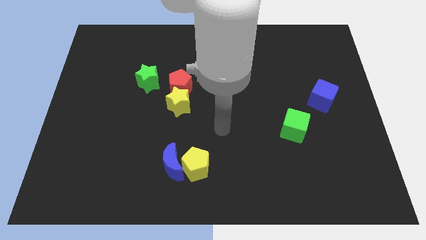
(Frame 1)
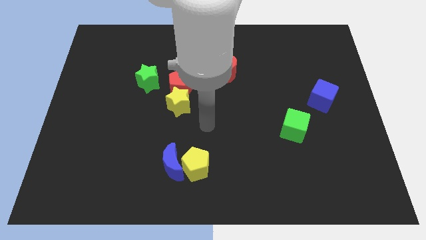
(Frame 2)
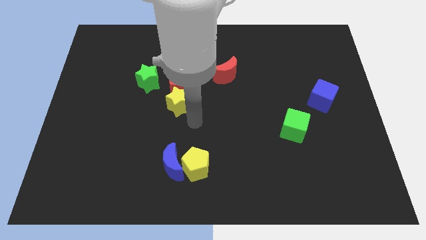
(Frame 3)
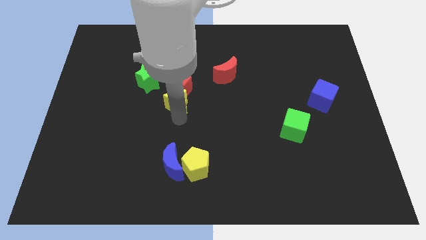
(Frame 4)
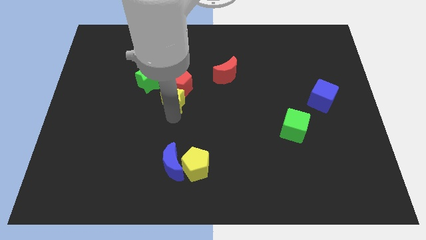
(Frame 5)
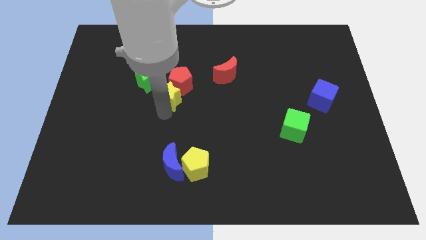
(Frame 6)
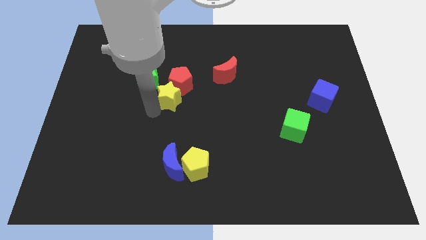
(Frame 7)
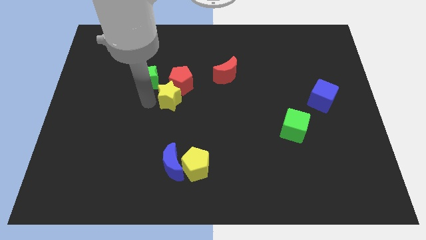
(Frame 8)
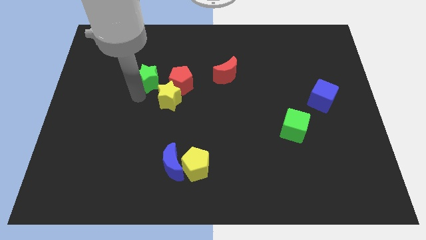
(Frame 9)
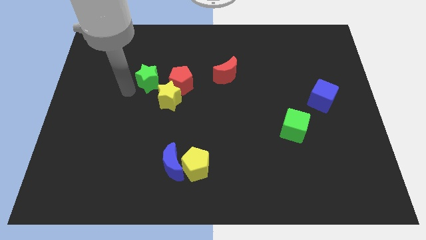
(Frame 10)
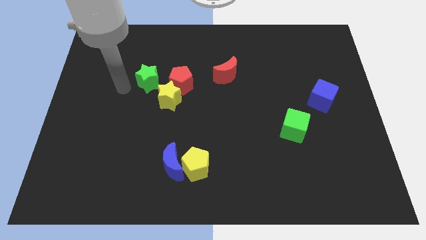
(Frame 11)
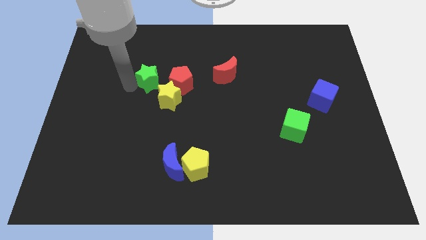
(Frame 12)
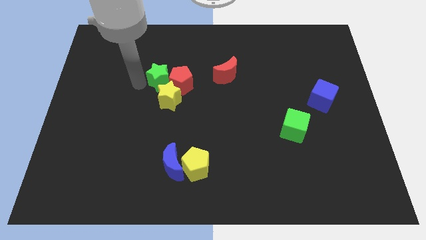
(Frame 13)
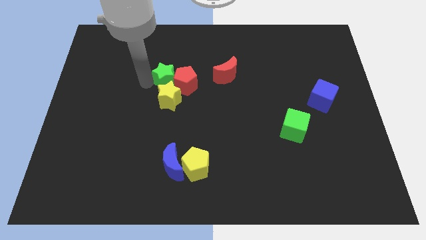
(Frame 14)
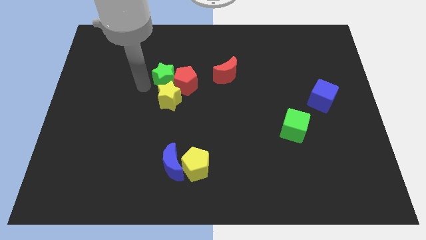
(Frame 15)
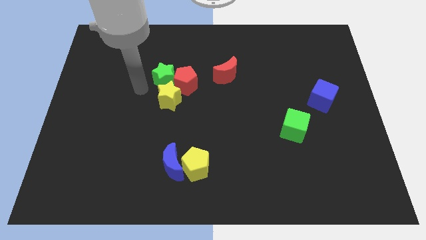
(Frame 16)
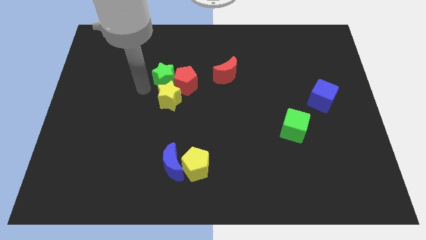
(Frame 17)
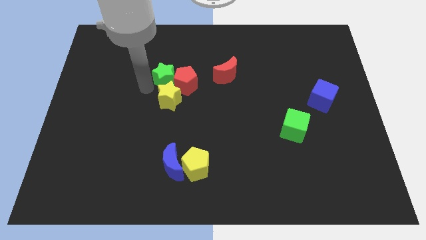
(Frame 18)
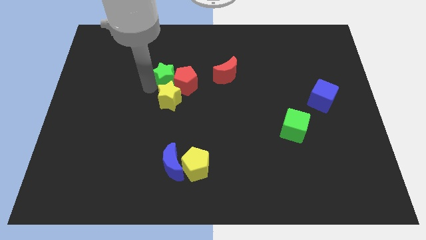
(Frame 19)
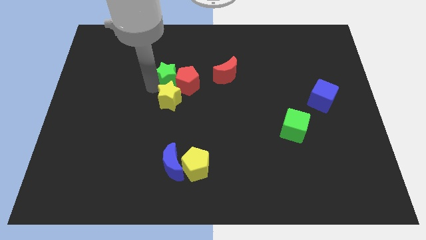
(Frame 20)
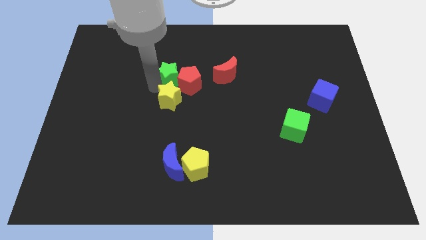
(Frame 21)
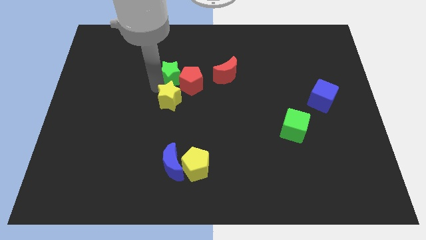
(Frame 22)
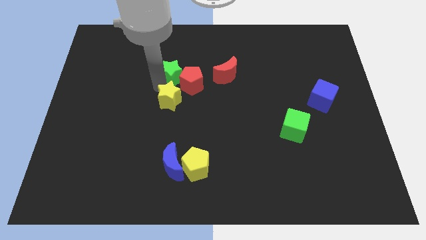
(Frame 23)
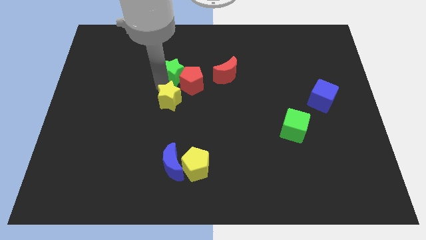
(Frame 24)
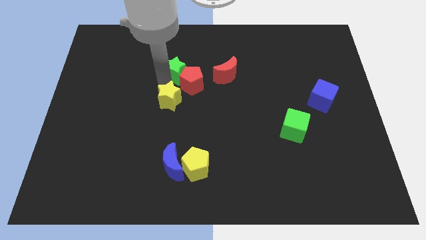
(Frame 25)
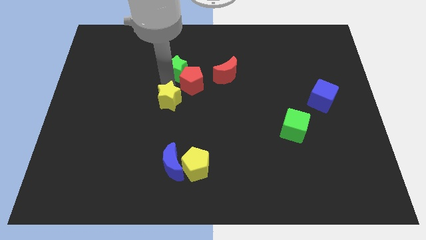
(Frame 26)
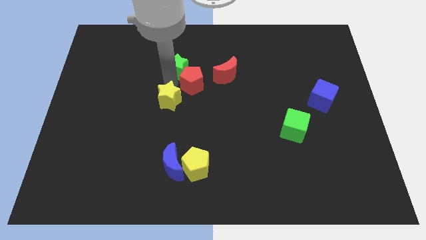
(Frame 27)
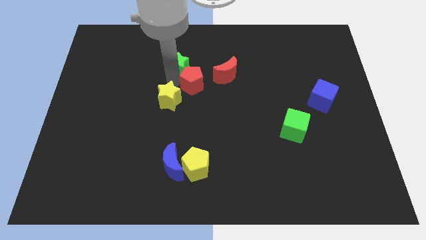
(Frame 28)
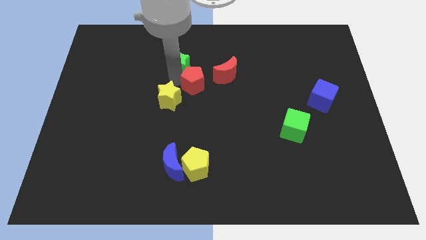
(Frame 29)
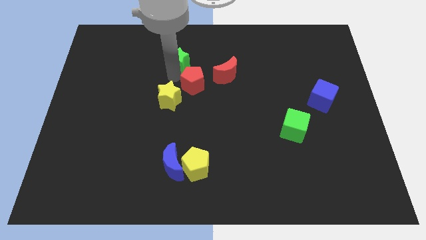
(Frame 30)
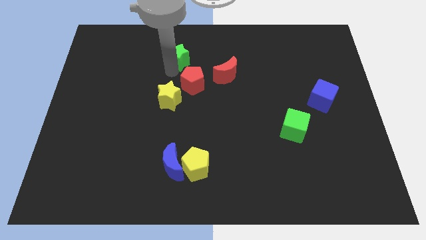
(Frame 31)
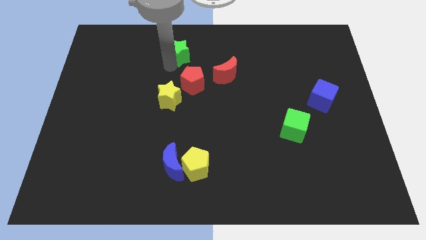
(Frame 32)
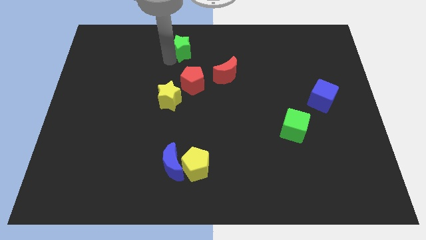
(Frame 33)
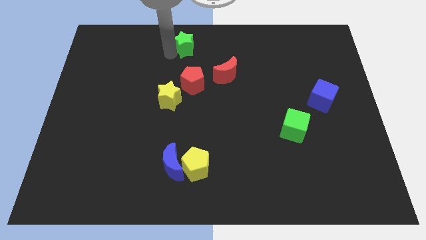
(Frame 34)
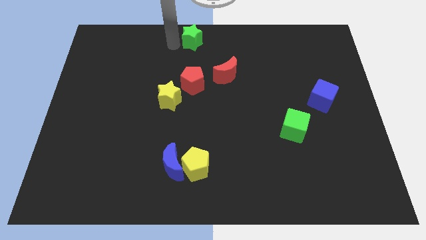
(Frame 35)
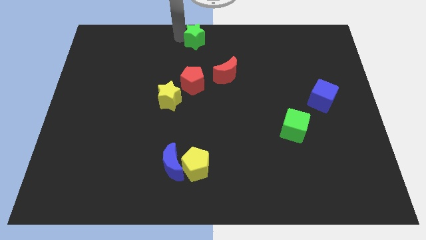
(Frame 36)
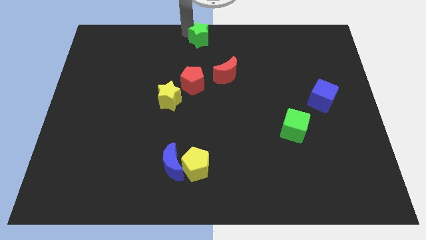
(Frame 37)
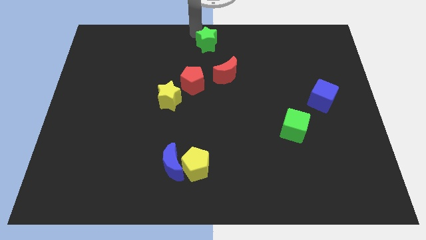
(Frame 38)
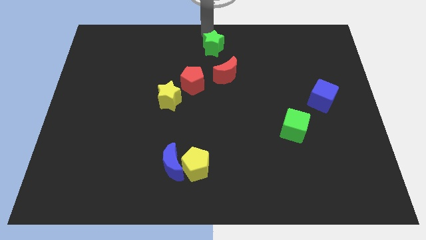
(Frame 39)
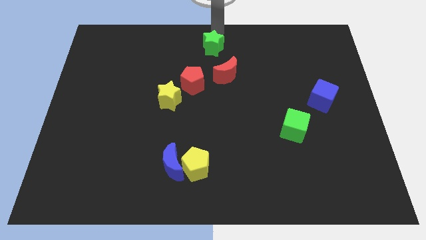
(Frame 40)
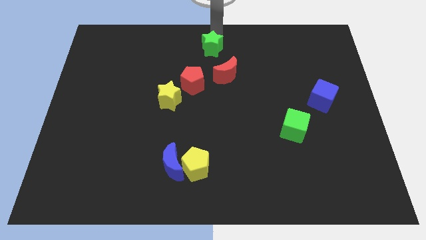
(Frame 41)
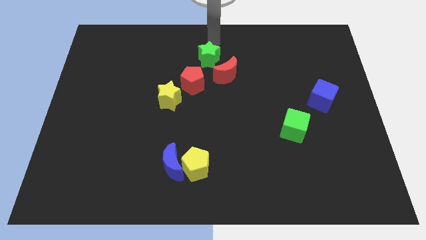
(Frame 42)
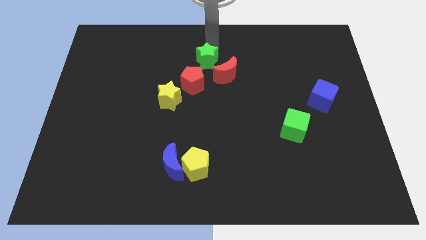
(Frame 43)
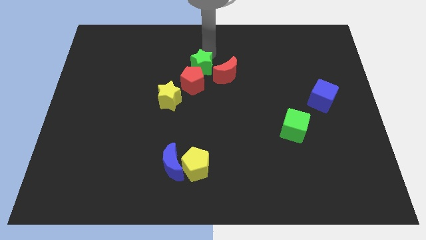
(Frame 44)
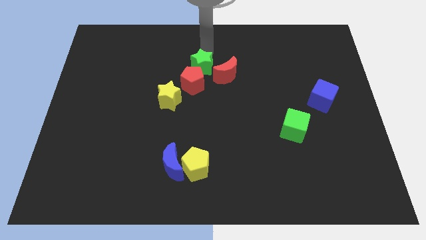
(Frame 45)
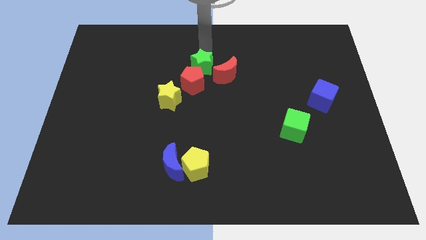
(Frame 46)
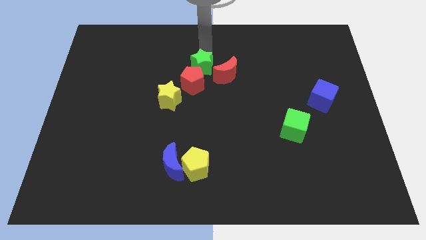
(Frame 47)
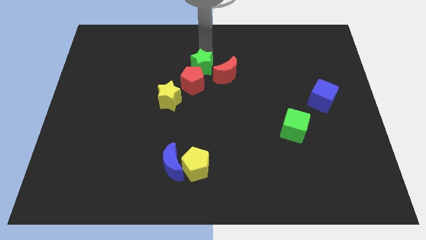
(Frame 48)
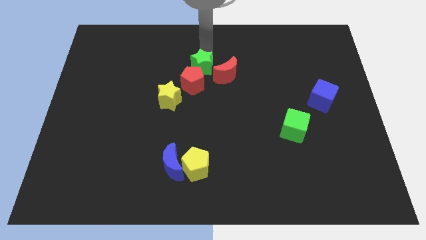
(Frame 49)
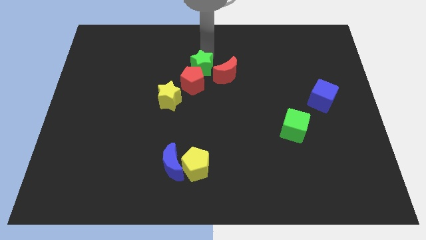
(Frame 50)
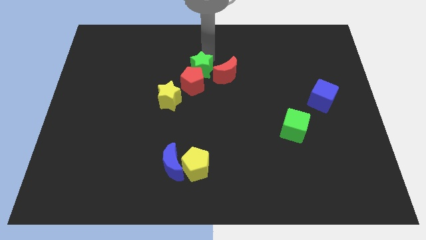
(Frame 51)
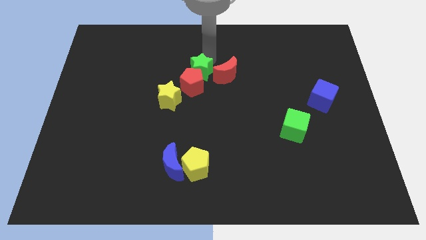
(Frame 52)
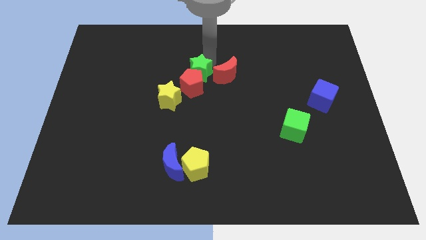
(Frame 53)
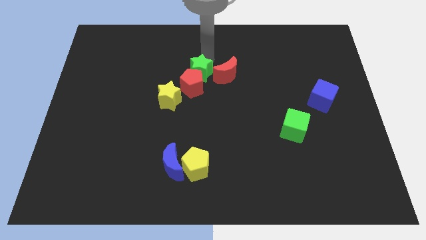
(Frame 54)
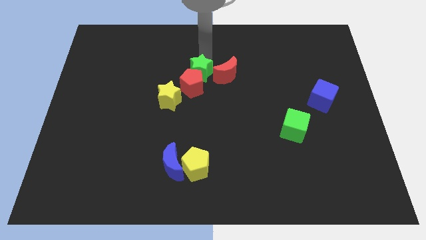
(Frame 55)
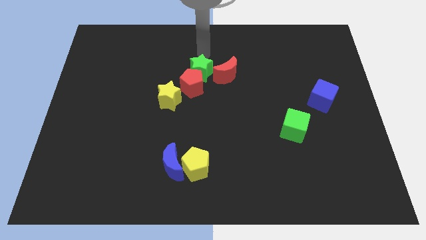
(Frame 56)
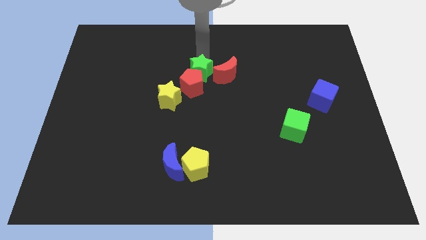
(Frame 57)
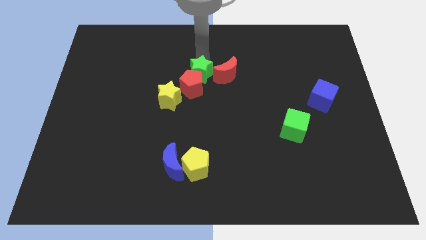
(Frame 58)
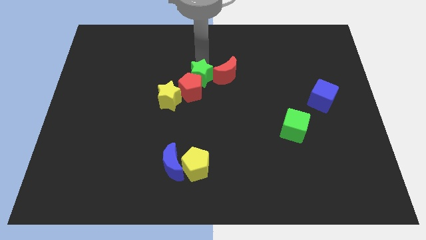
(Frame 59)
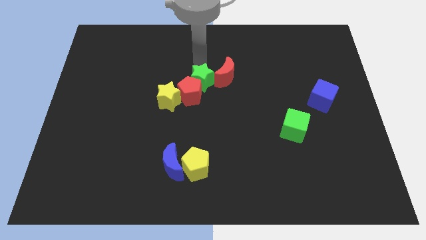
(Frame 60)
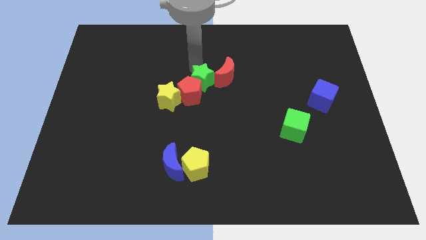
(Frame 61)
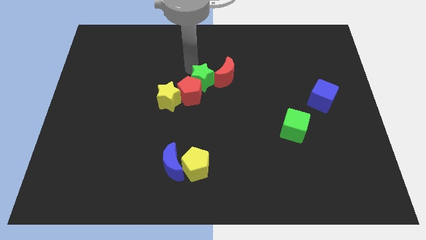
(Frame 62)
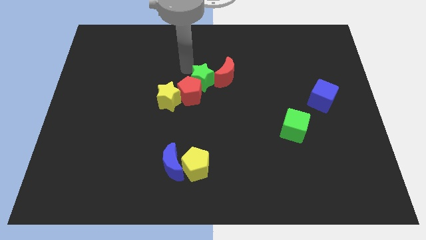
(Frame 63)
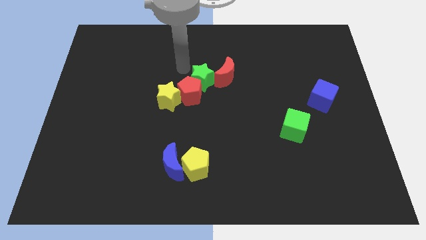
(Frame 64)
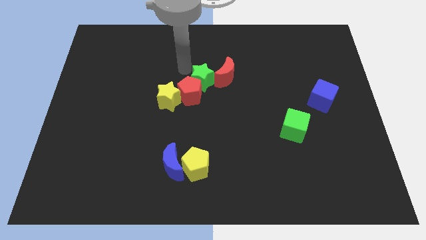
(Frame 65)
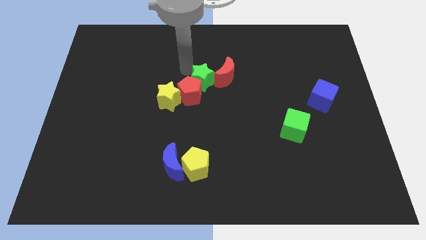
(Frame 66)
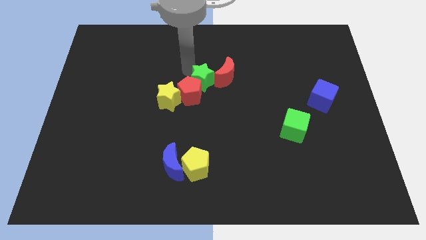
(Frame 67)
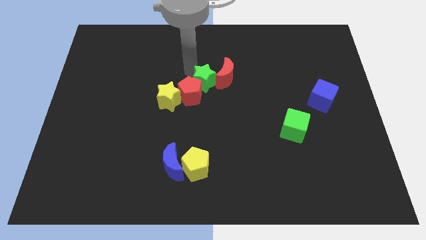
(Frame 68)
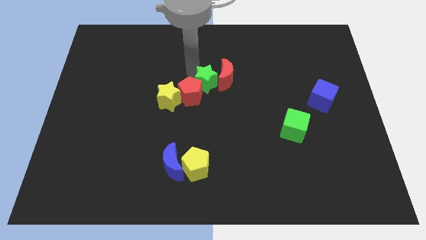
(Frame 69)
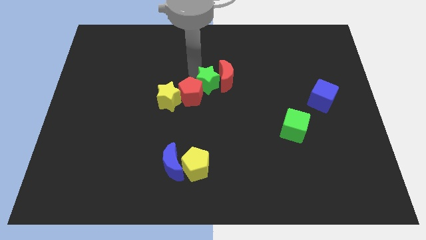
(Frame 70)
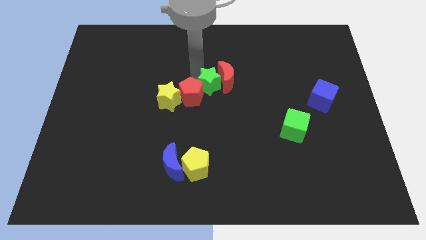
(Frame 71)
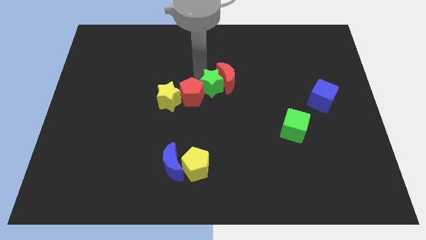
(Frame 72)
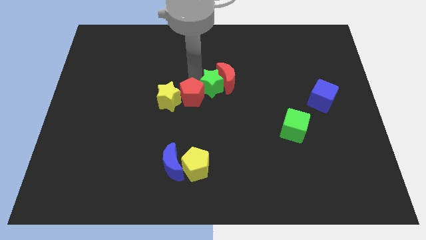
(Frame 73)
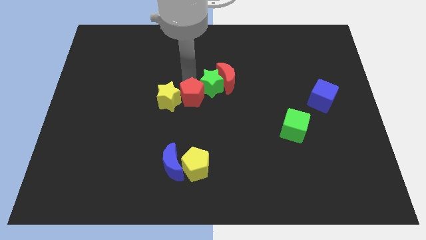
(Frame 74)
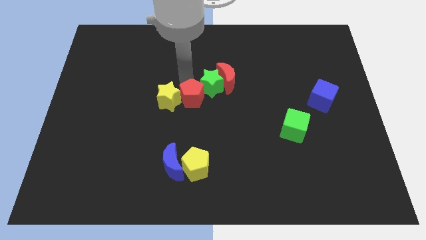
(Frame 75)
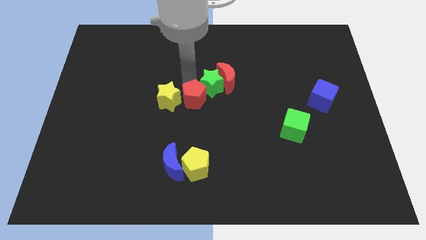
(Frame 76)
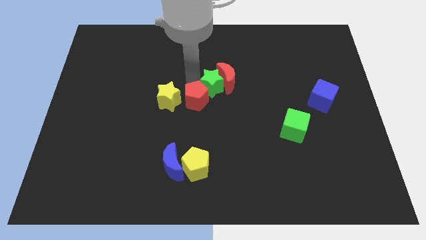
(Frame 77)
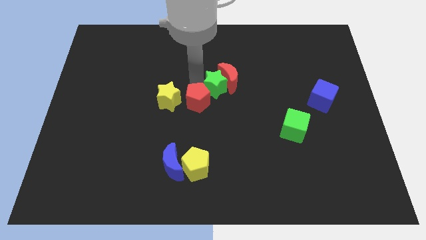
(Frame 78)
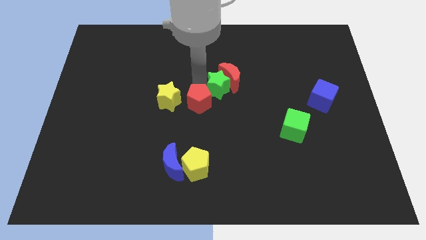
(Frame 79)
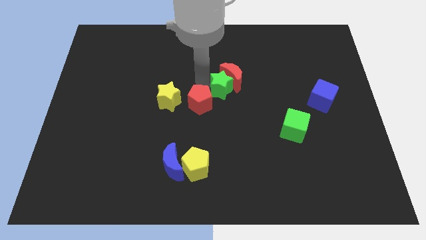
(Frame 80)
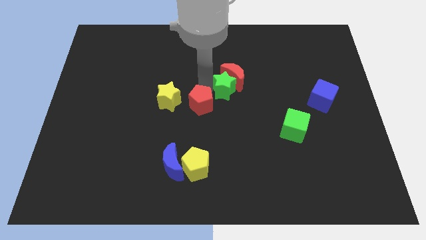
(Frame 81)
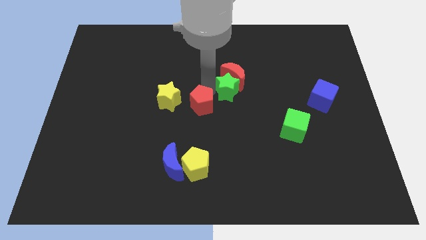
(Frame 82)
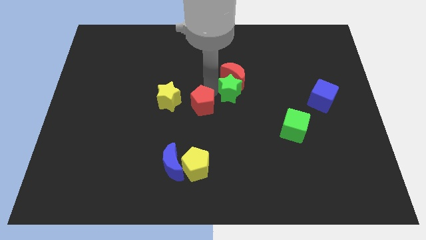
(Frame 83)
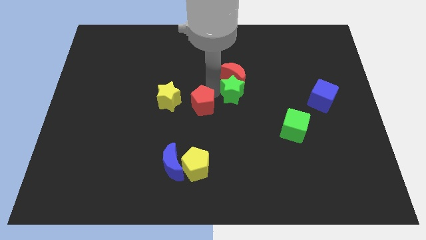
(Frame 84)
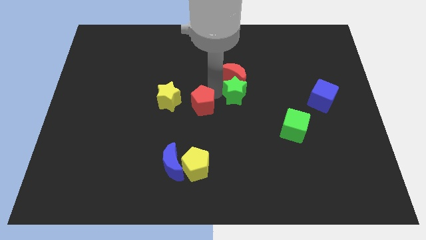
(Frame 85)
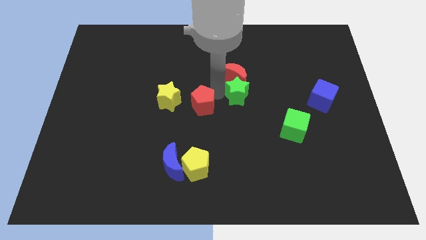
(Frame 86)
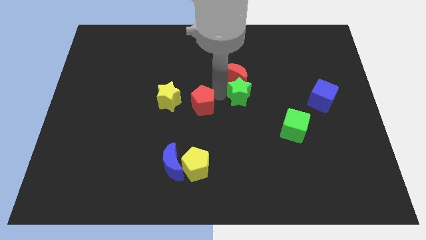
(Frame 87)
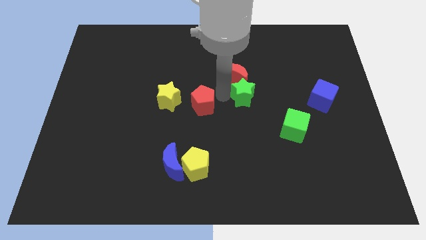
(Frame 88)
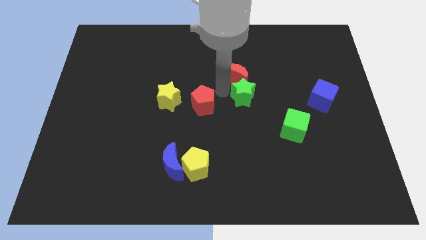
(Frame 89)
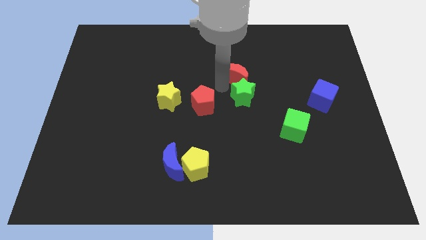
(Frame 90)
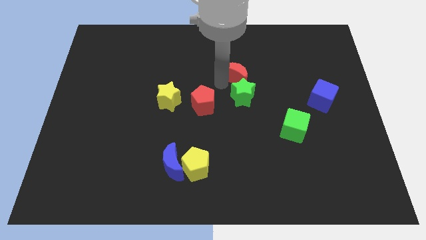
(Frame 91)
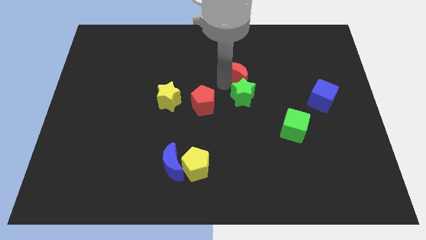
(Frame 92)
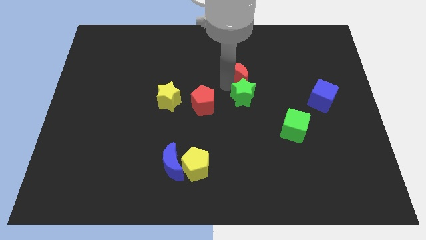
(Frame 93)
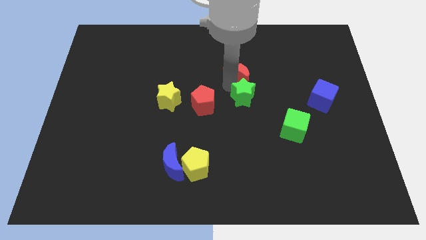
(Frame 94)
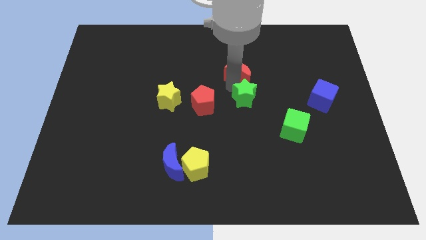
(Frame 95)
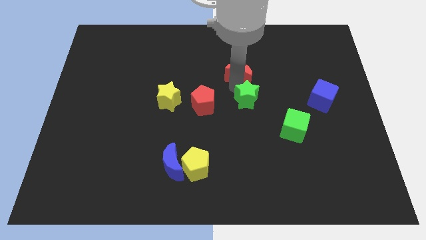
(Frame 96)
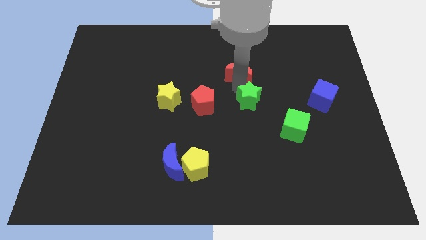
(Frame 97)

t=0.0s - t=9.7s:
put the green star to the top left side of the green cube
